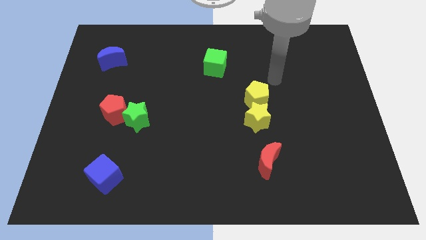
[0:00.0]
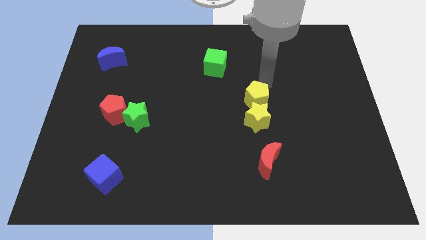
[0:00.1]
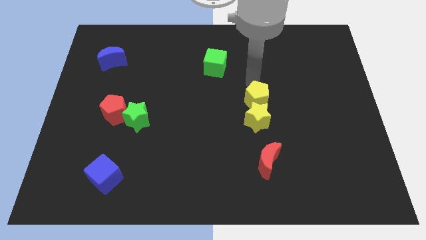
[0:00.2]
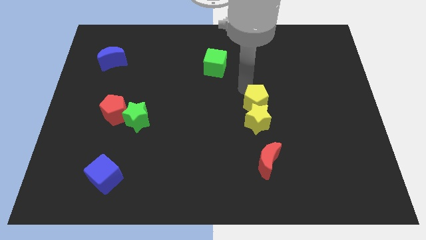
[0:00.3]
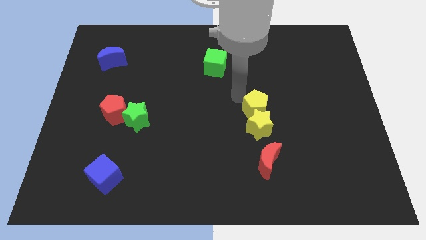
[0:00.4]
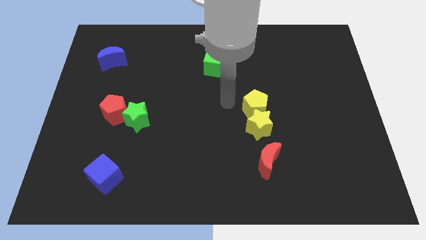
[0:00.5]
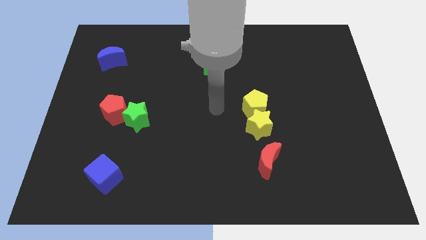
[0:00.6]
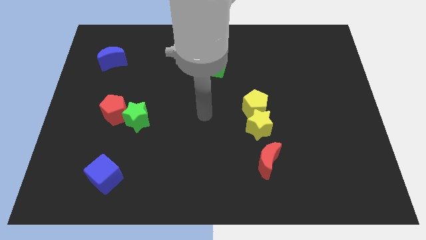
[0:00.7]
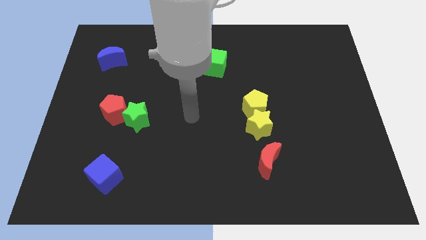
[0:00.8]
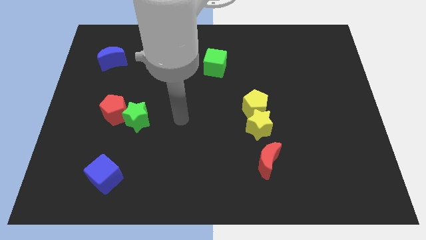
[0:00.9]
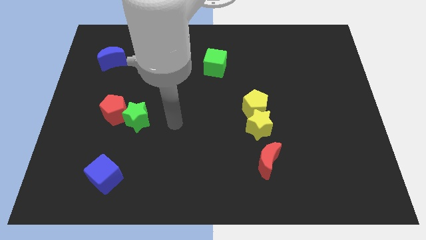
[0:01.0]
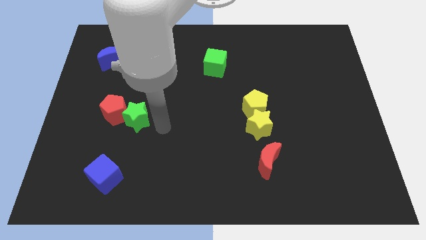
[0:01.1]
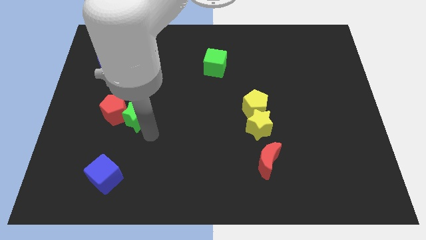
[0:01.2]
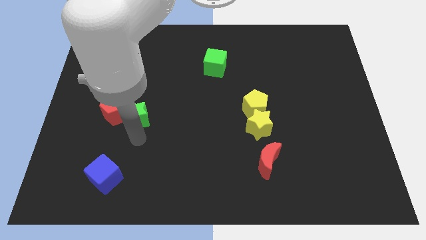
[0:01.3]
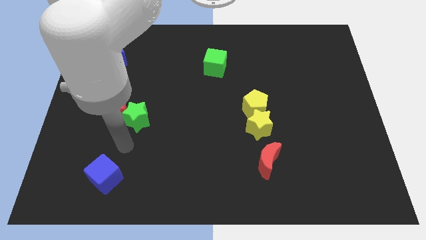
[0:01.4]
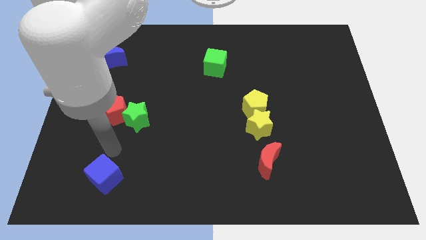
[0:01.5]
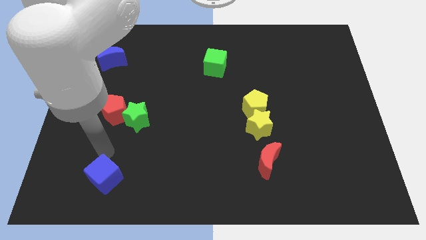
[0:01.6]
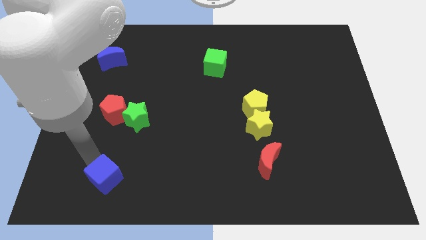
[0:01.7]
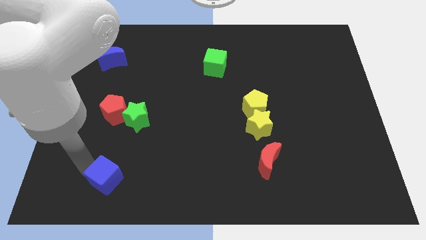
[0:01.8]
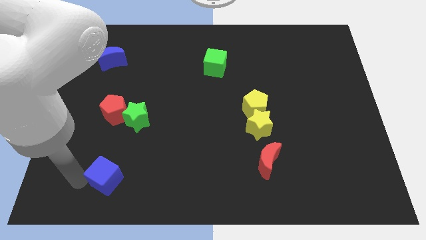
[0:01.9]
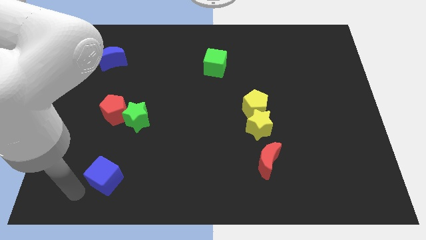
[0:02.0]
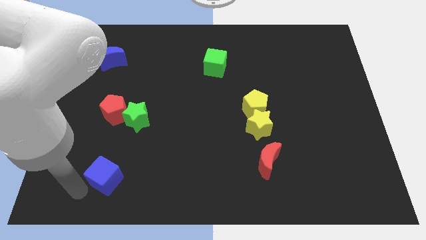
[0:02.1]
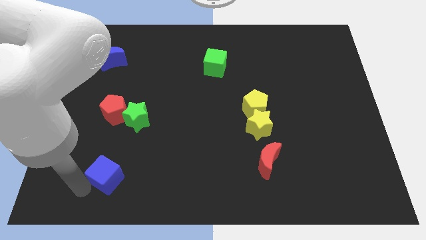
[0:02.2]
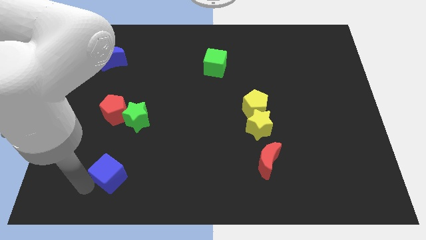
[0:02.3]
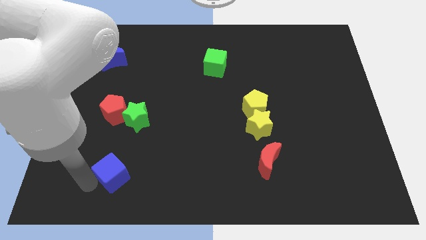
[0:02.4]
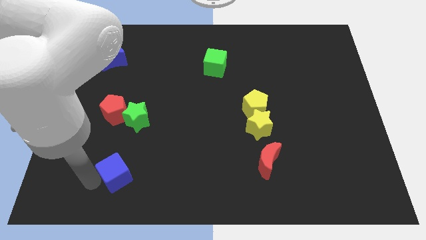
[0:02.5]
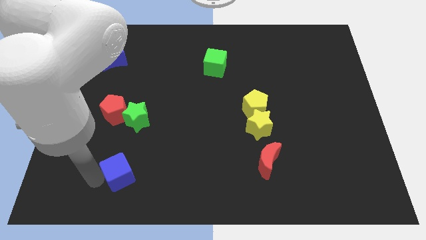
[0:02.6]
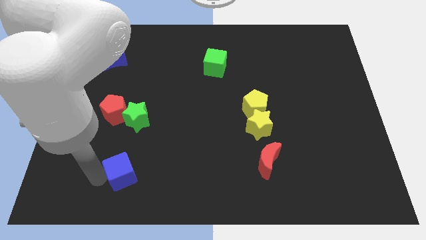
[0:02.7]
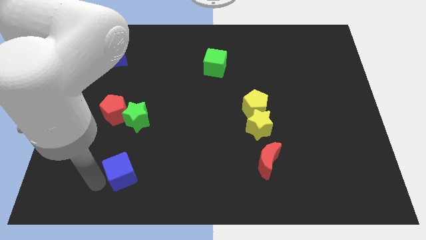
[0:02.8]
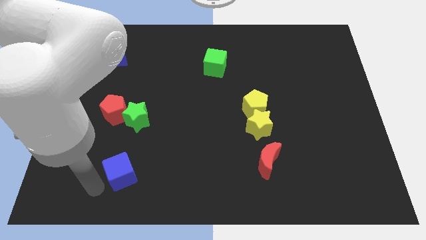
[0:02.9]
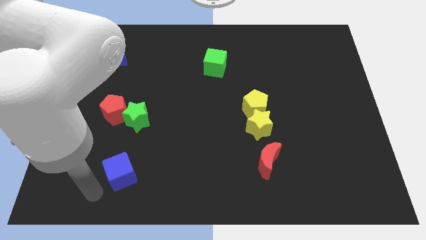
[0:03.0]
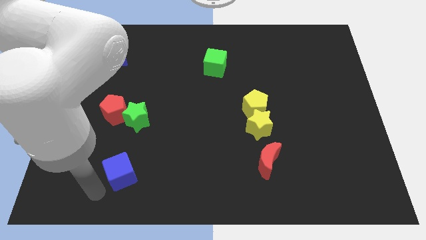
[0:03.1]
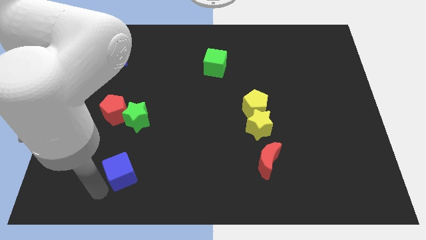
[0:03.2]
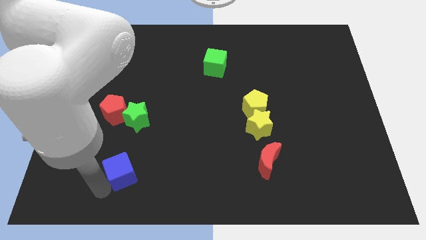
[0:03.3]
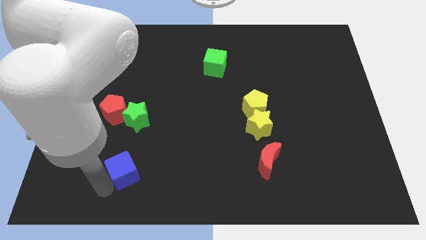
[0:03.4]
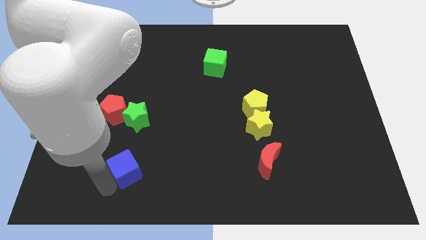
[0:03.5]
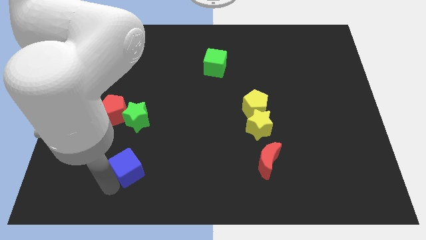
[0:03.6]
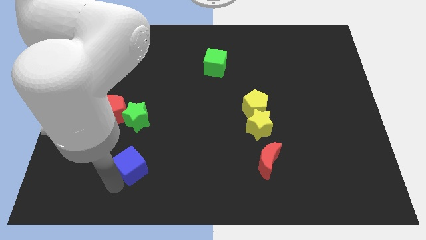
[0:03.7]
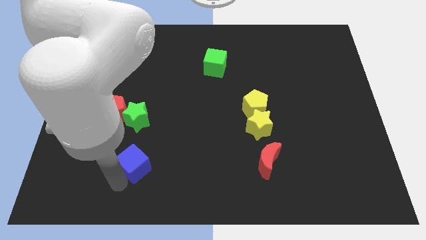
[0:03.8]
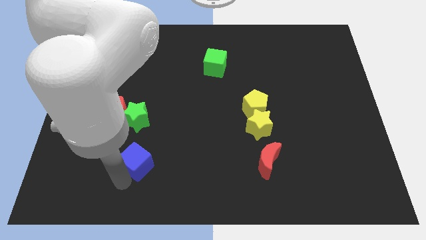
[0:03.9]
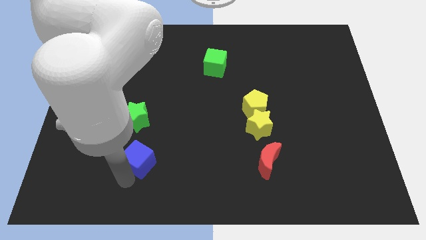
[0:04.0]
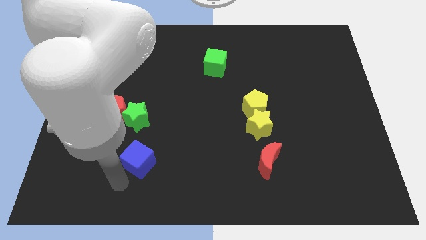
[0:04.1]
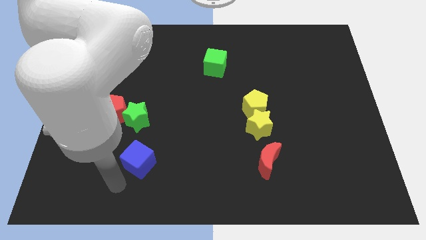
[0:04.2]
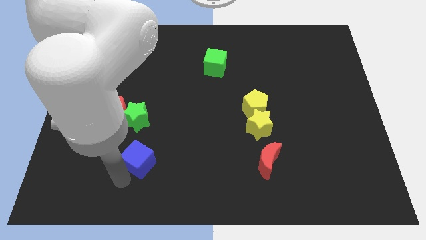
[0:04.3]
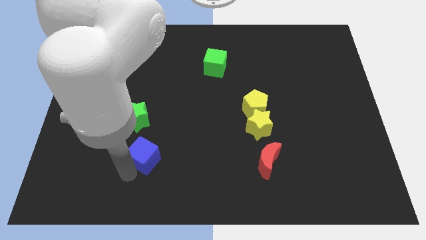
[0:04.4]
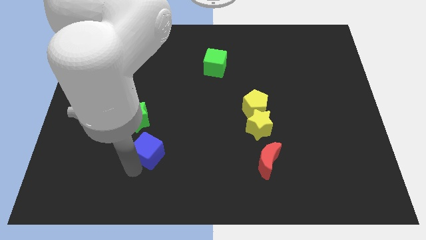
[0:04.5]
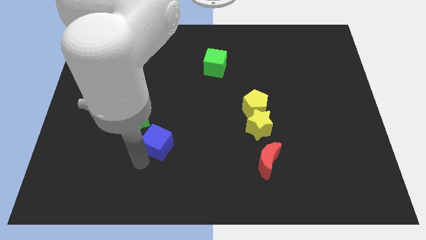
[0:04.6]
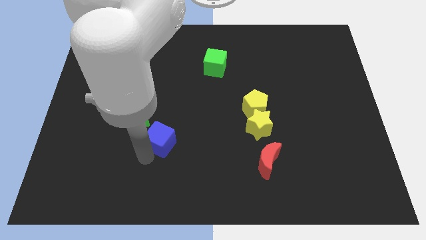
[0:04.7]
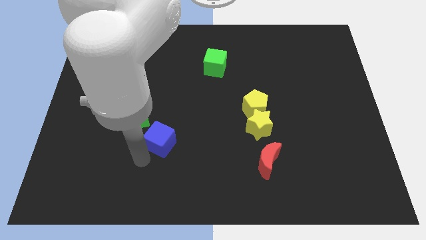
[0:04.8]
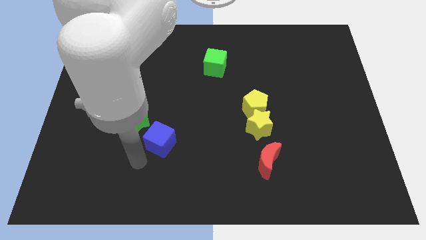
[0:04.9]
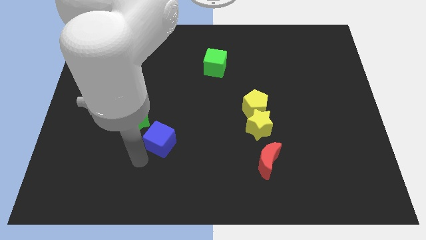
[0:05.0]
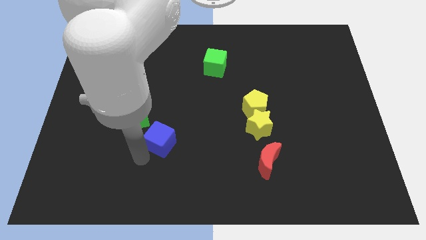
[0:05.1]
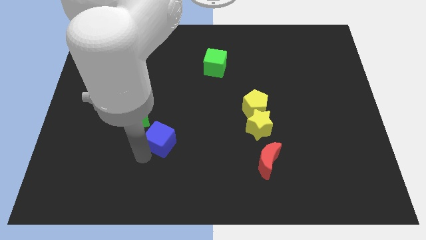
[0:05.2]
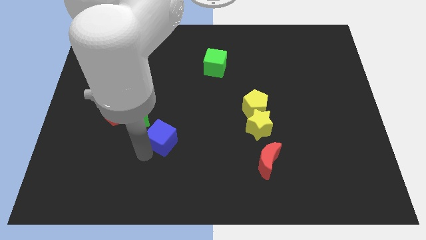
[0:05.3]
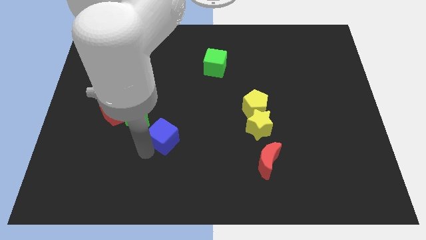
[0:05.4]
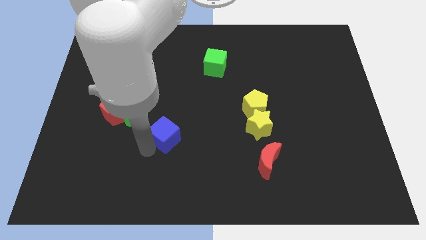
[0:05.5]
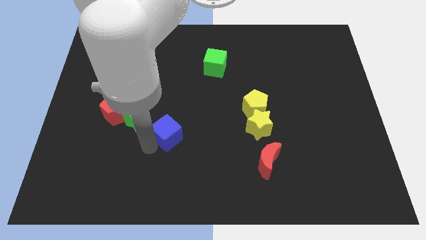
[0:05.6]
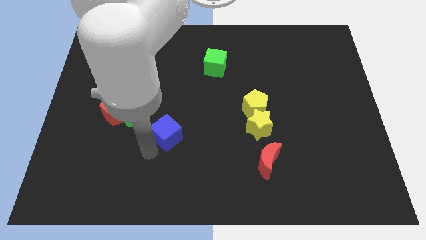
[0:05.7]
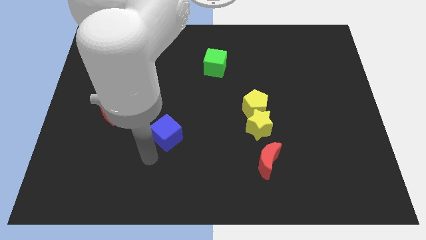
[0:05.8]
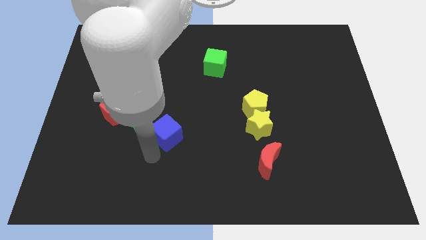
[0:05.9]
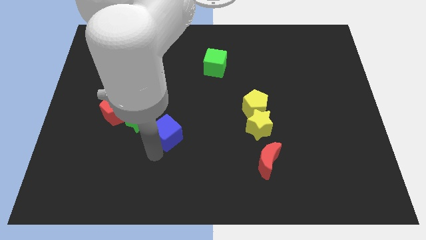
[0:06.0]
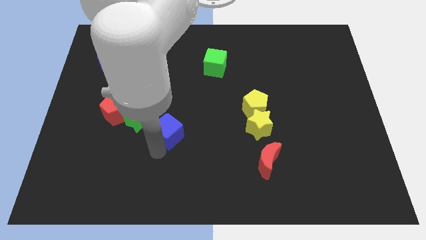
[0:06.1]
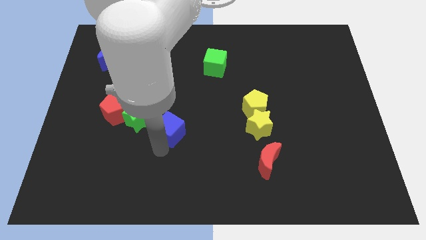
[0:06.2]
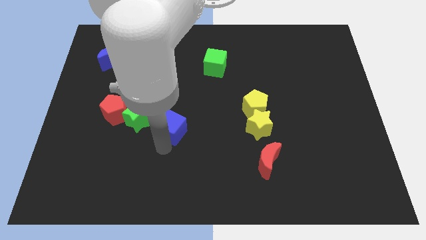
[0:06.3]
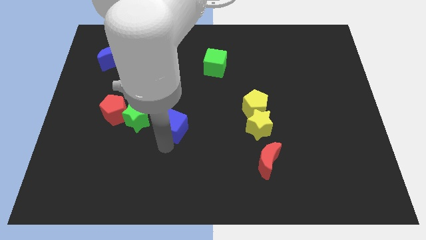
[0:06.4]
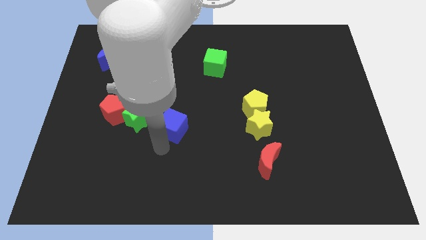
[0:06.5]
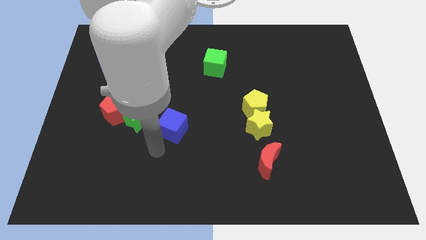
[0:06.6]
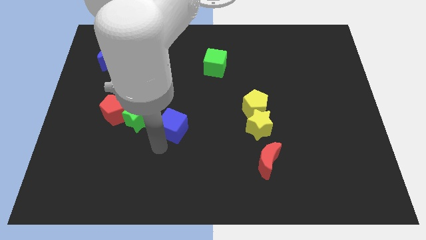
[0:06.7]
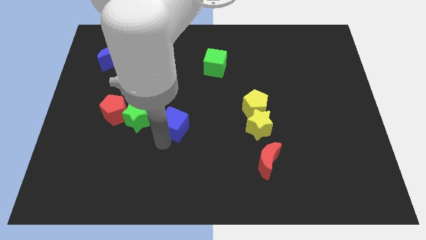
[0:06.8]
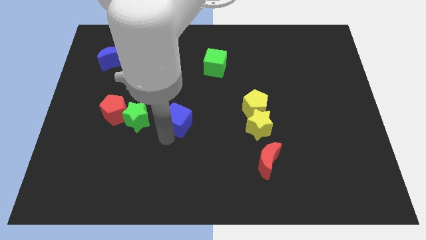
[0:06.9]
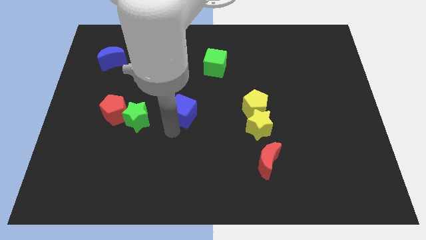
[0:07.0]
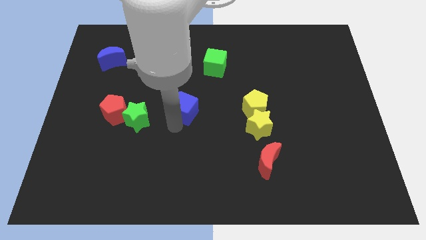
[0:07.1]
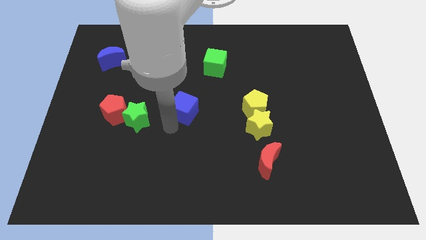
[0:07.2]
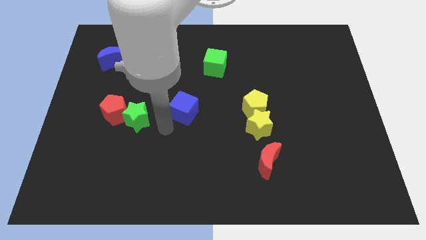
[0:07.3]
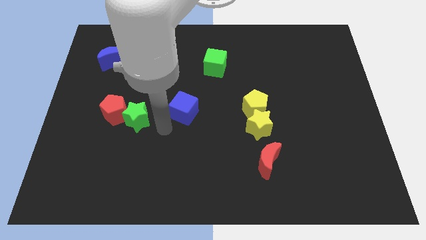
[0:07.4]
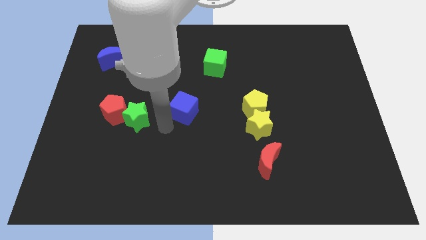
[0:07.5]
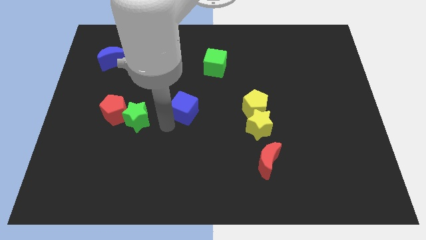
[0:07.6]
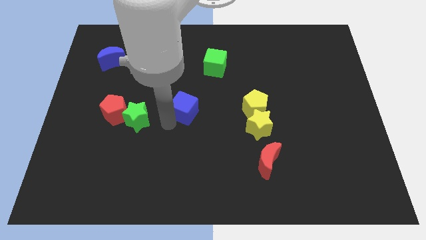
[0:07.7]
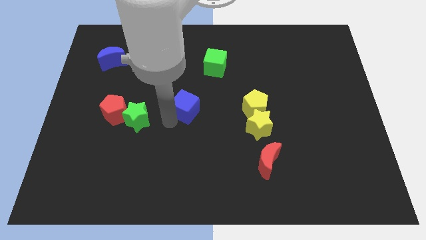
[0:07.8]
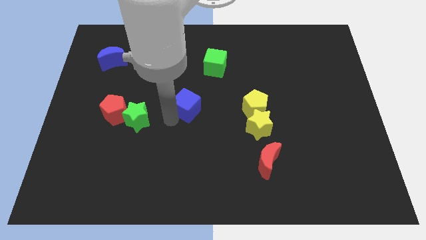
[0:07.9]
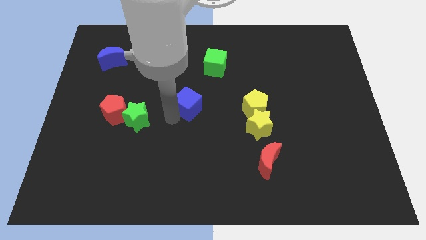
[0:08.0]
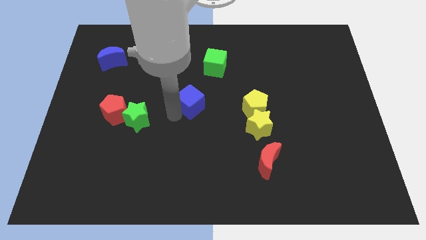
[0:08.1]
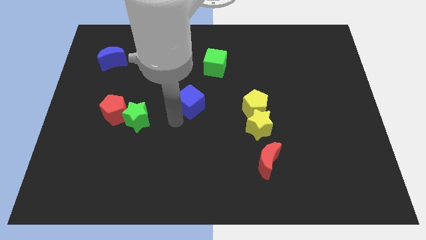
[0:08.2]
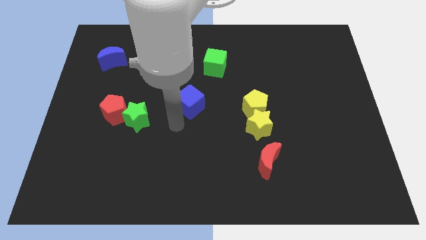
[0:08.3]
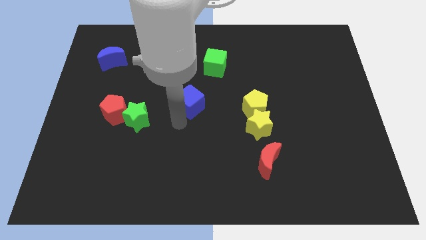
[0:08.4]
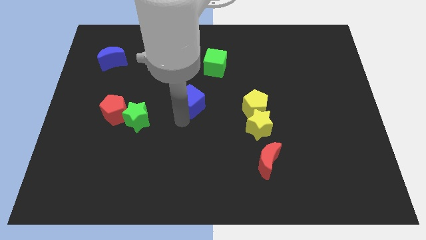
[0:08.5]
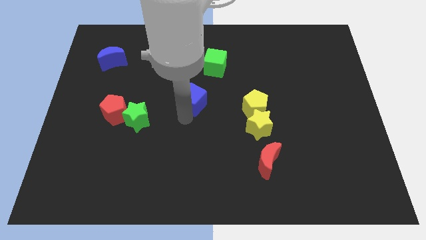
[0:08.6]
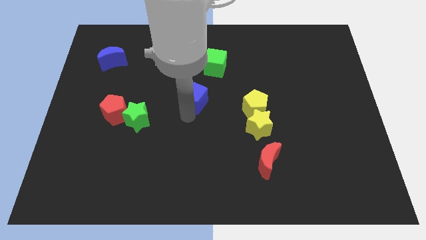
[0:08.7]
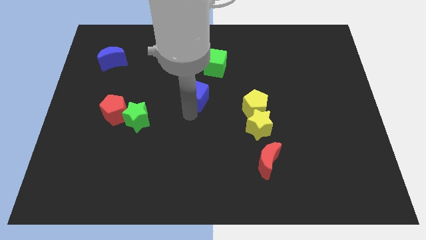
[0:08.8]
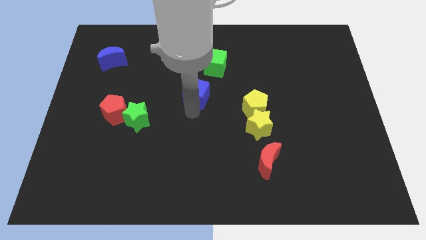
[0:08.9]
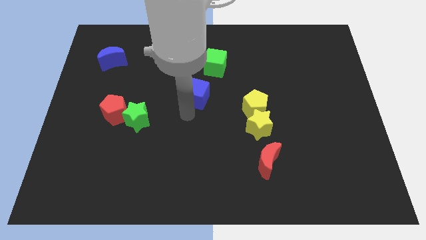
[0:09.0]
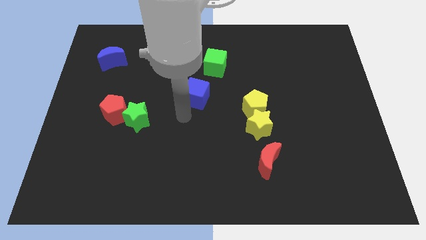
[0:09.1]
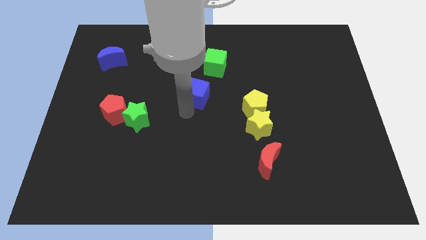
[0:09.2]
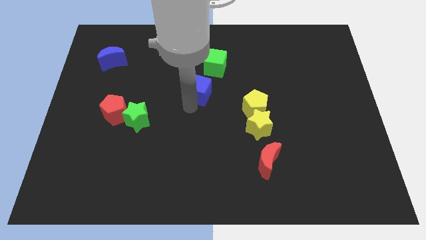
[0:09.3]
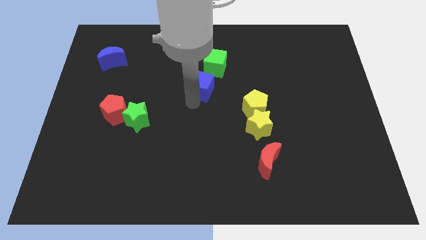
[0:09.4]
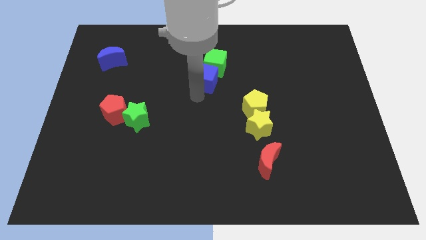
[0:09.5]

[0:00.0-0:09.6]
push the blue cube next to the green cube
